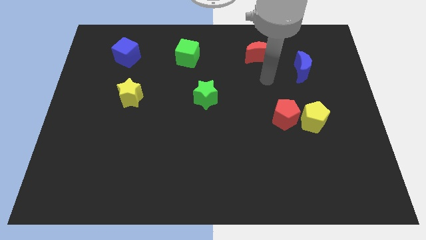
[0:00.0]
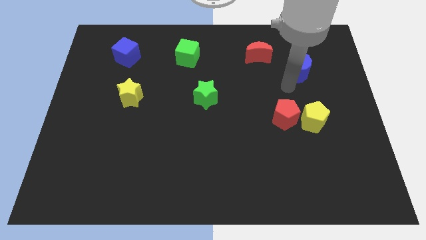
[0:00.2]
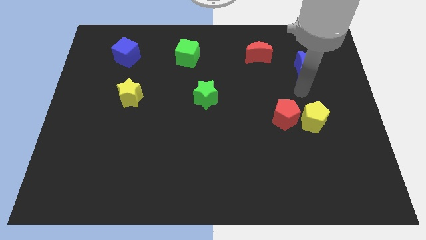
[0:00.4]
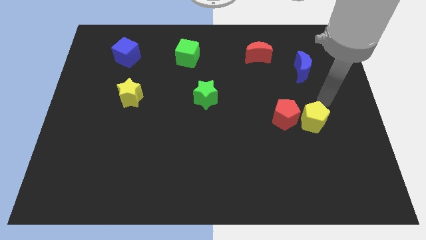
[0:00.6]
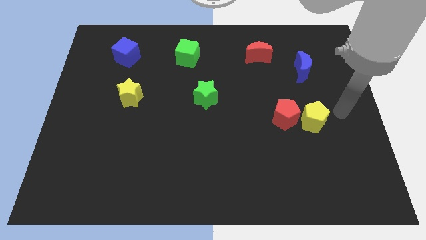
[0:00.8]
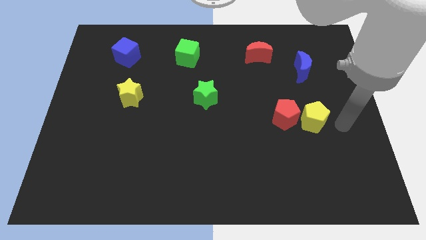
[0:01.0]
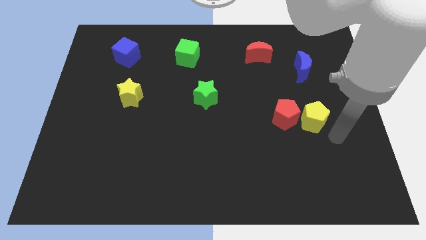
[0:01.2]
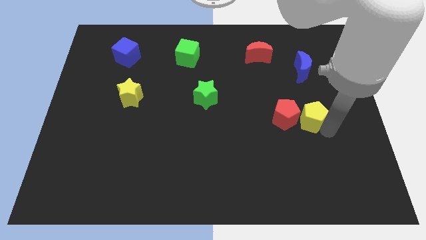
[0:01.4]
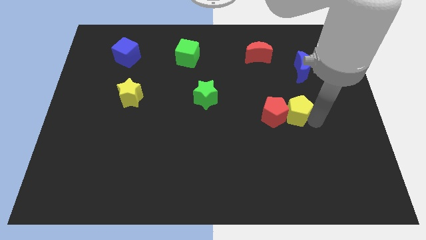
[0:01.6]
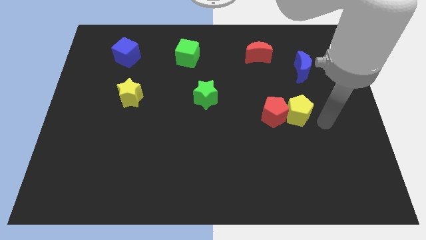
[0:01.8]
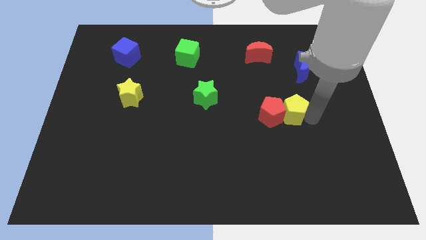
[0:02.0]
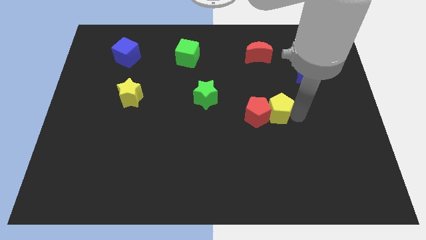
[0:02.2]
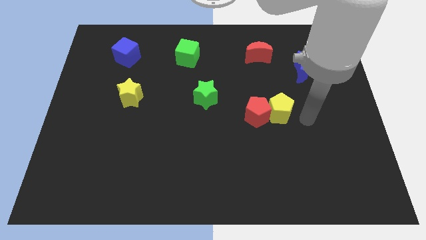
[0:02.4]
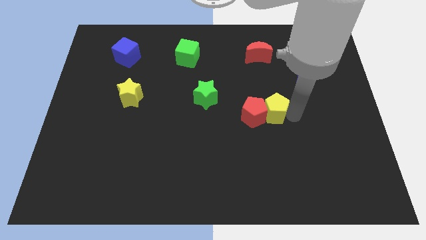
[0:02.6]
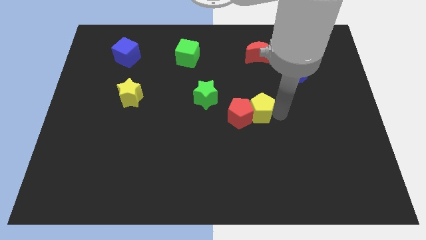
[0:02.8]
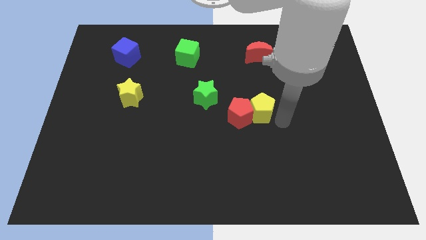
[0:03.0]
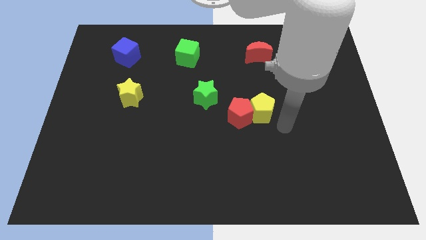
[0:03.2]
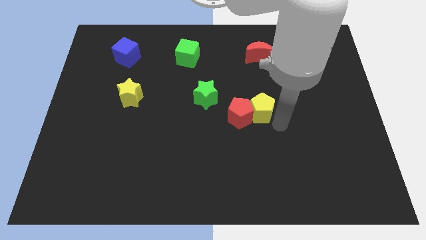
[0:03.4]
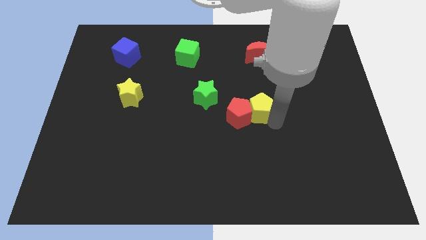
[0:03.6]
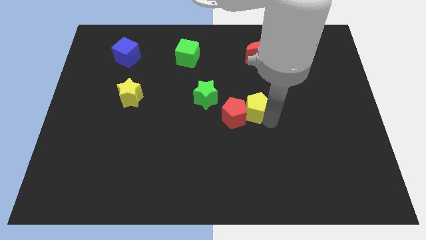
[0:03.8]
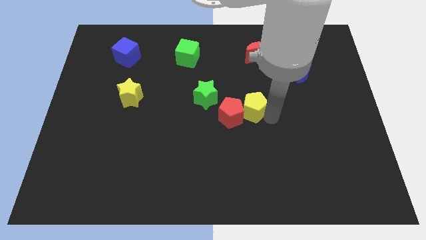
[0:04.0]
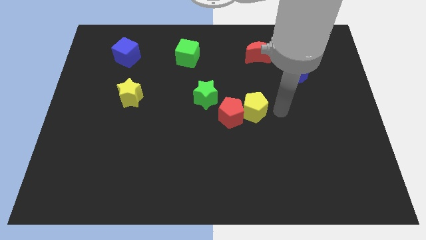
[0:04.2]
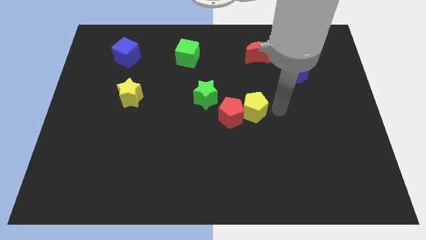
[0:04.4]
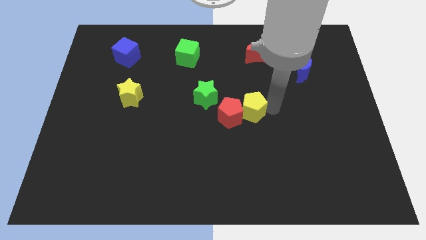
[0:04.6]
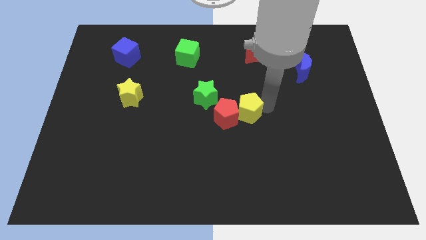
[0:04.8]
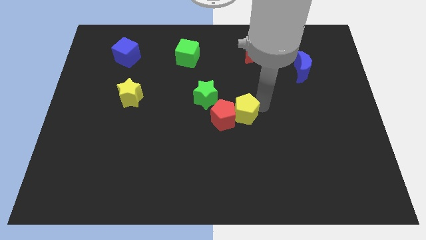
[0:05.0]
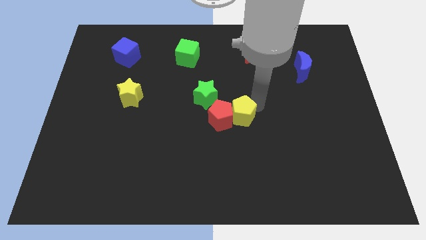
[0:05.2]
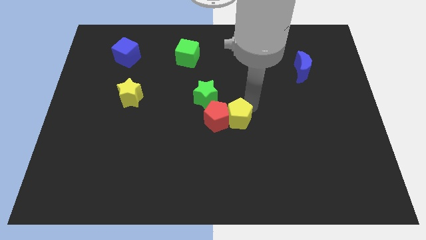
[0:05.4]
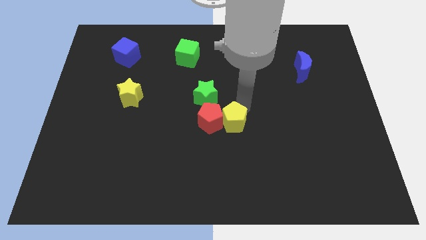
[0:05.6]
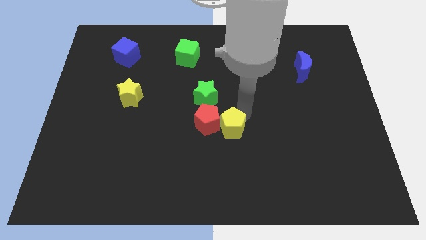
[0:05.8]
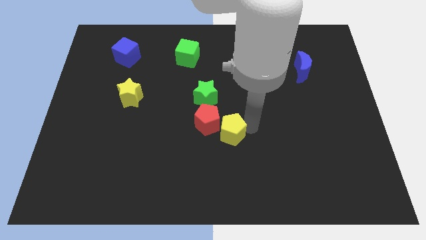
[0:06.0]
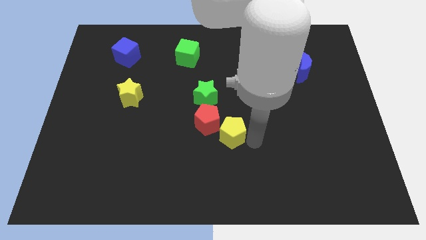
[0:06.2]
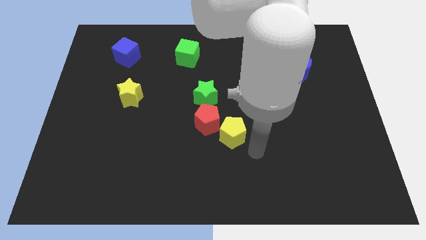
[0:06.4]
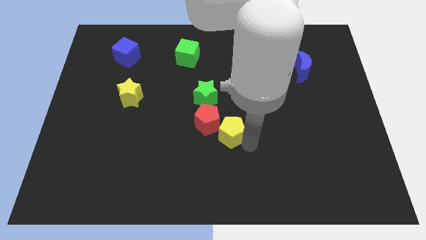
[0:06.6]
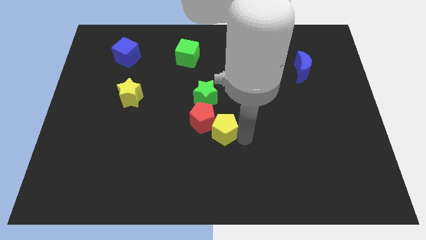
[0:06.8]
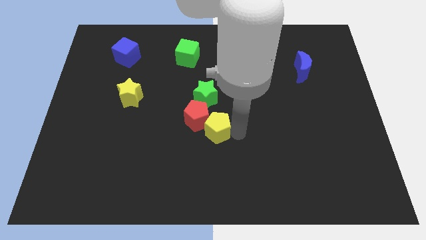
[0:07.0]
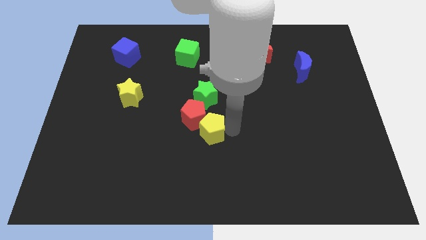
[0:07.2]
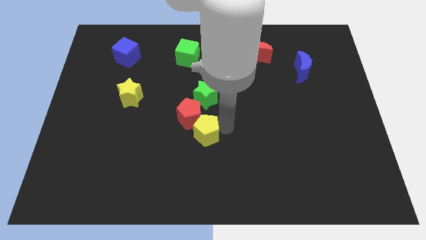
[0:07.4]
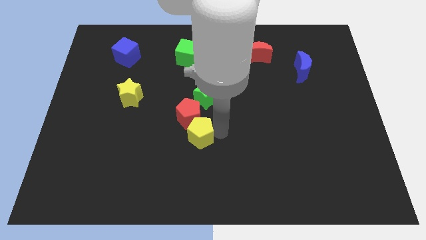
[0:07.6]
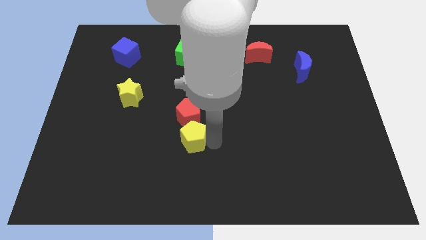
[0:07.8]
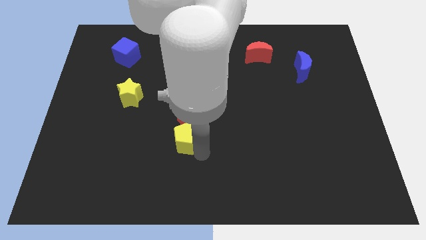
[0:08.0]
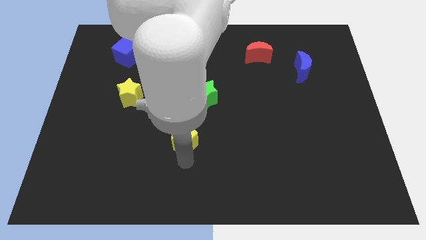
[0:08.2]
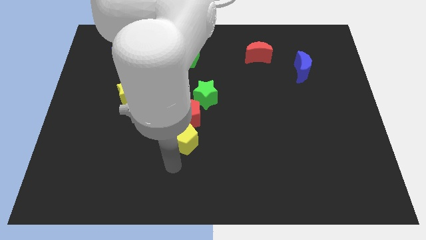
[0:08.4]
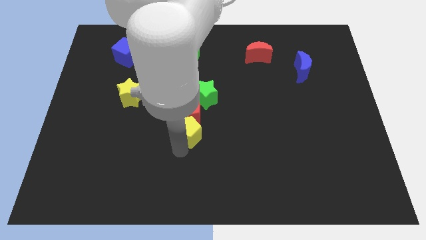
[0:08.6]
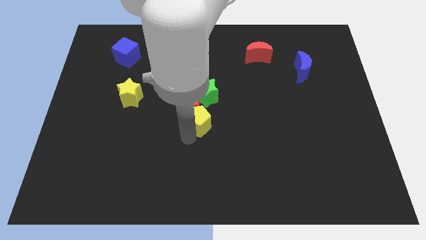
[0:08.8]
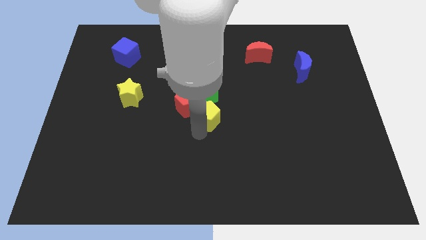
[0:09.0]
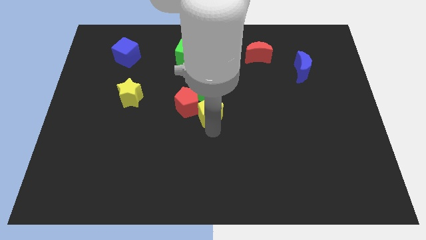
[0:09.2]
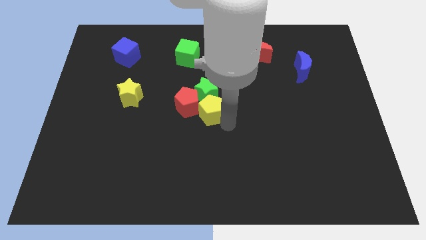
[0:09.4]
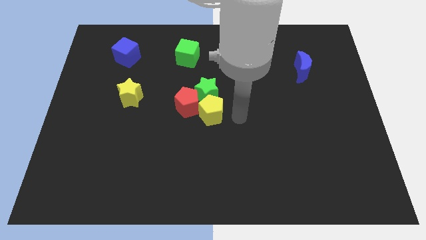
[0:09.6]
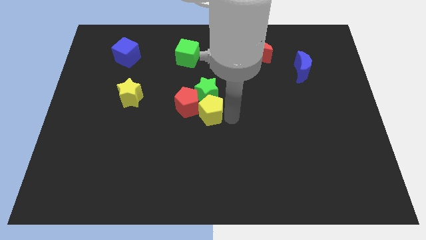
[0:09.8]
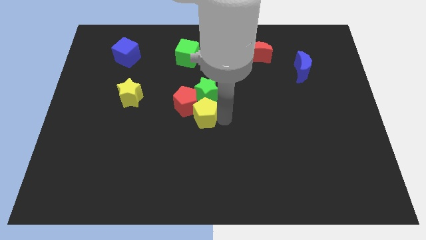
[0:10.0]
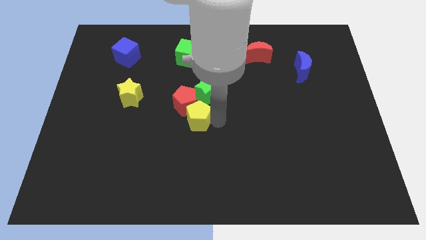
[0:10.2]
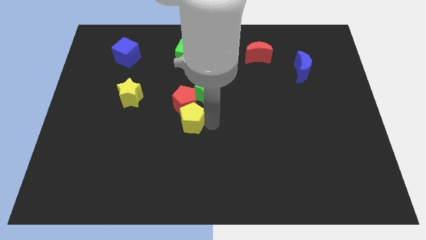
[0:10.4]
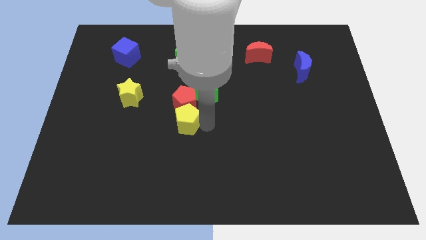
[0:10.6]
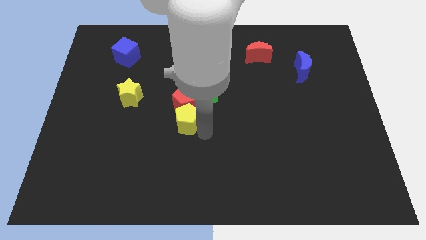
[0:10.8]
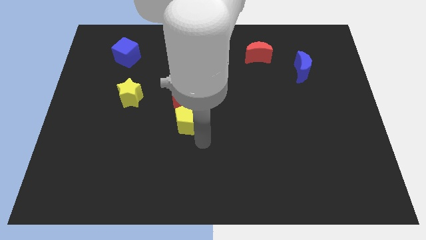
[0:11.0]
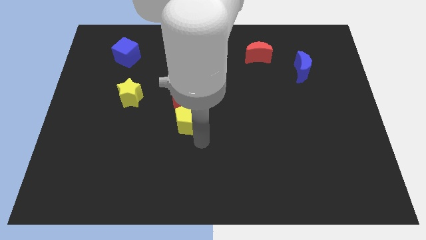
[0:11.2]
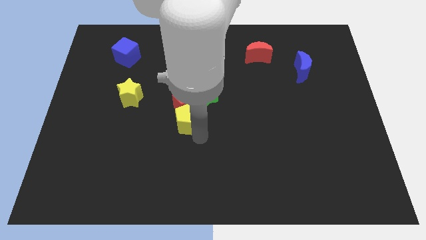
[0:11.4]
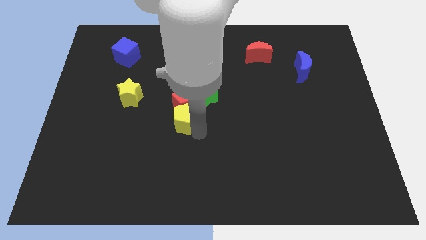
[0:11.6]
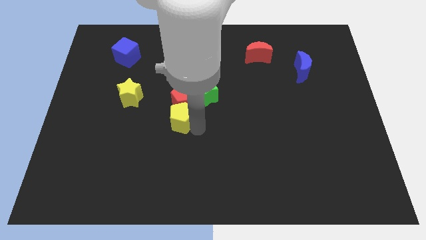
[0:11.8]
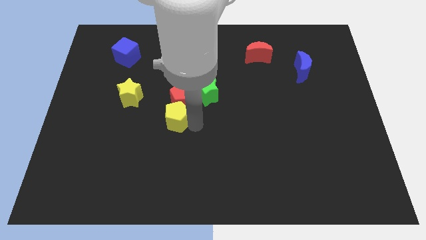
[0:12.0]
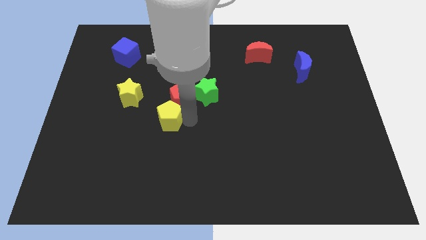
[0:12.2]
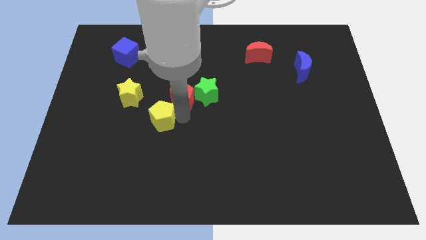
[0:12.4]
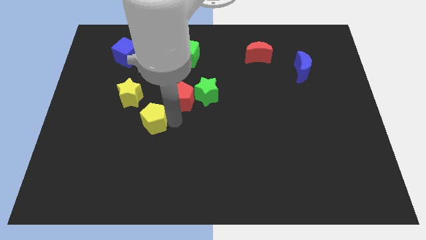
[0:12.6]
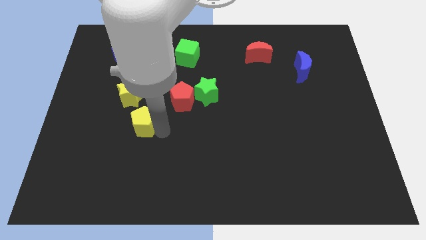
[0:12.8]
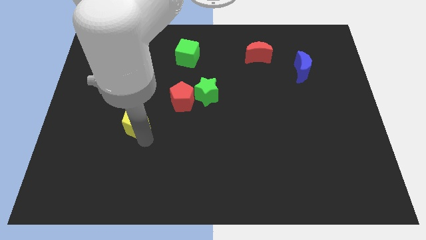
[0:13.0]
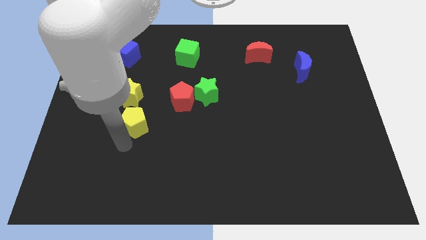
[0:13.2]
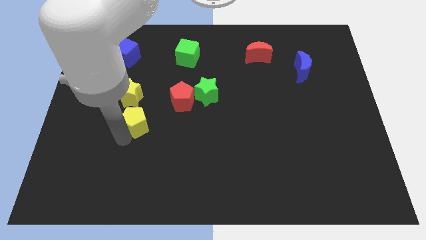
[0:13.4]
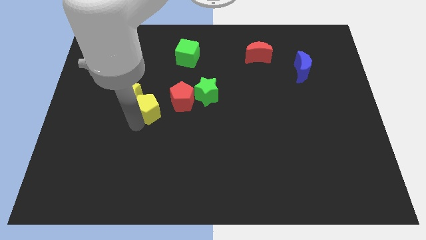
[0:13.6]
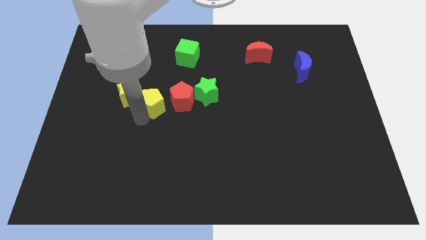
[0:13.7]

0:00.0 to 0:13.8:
move the yellow pentagon to the left of the green star
